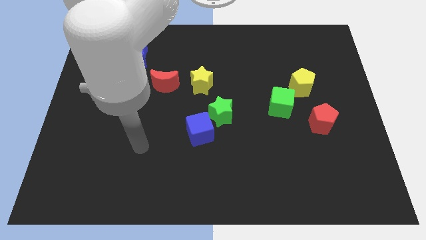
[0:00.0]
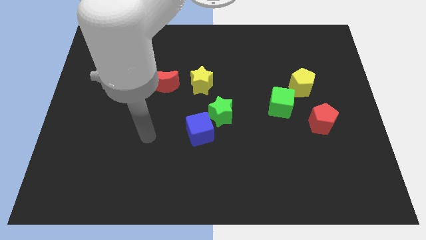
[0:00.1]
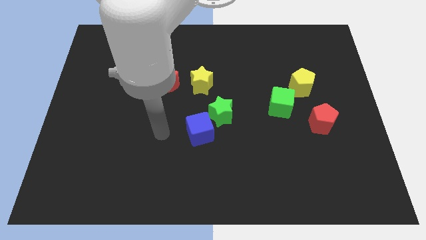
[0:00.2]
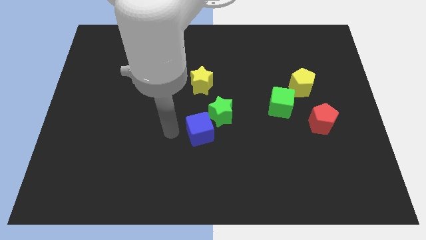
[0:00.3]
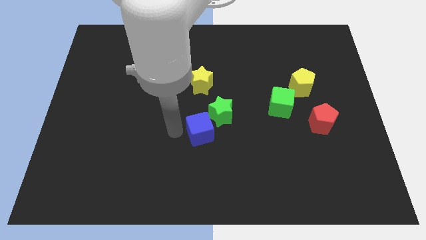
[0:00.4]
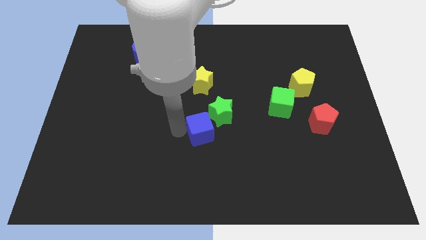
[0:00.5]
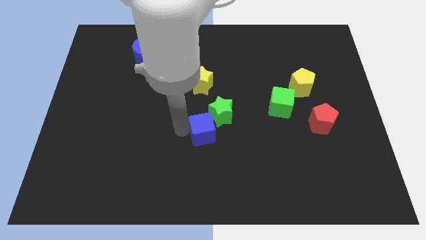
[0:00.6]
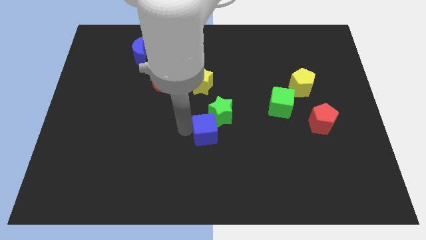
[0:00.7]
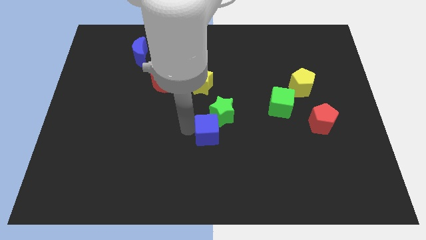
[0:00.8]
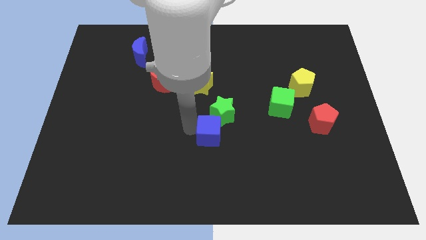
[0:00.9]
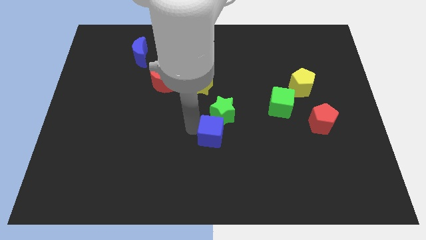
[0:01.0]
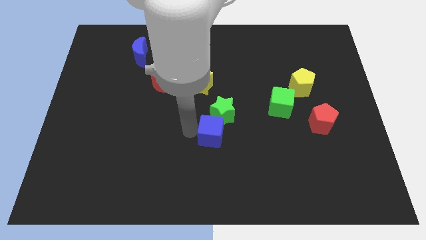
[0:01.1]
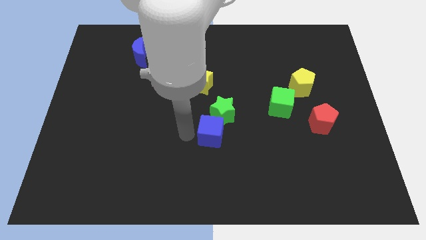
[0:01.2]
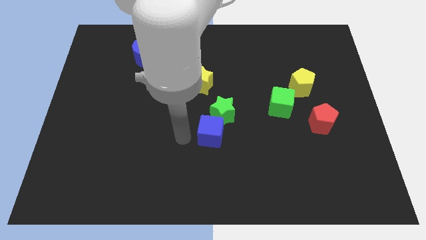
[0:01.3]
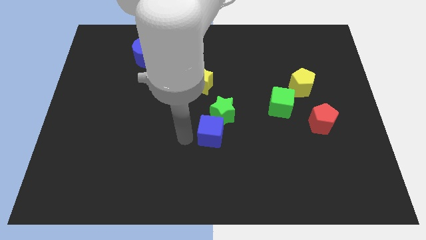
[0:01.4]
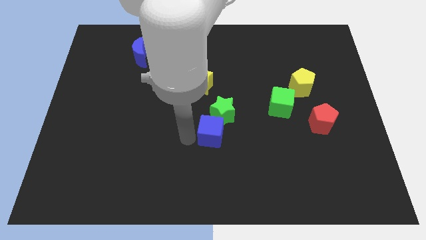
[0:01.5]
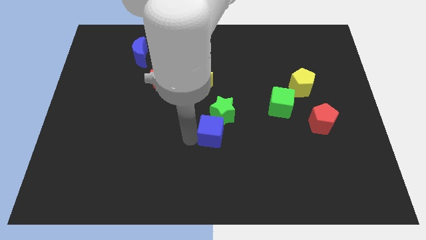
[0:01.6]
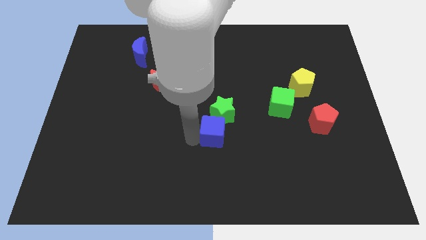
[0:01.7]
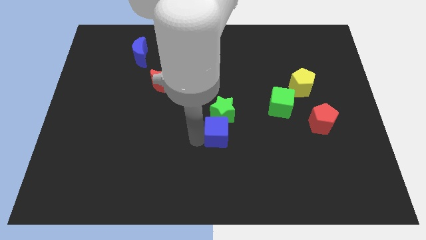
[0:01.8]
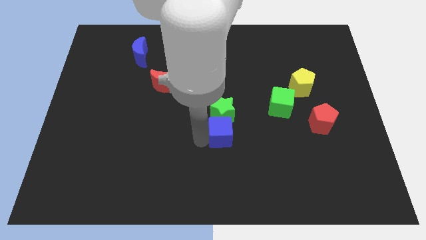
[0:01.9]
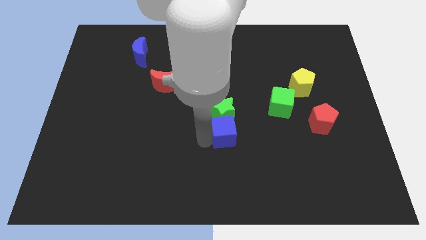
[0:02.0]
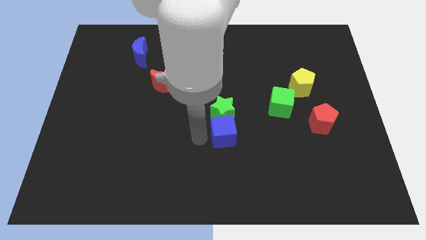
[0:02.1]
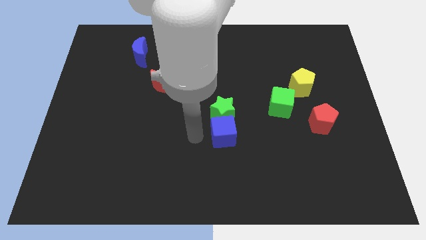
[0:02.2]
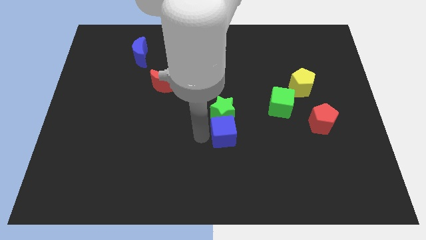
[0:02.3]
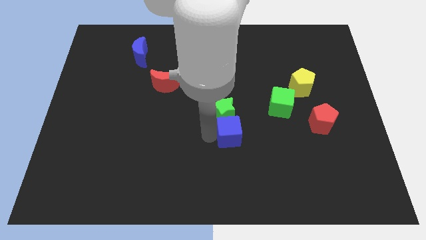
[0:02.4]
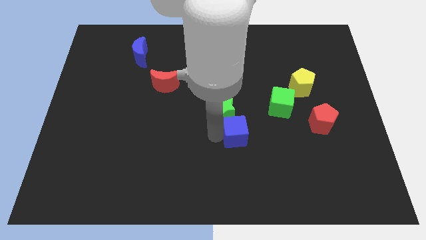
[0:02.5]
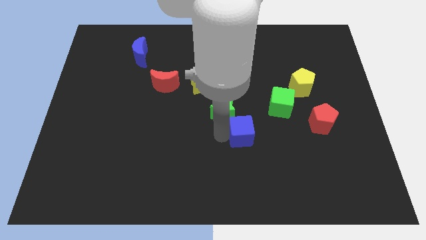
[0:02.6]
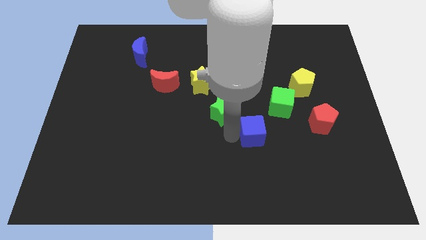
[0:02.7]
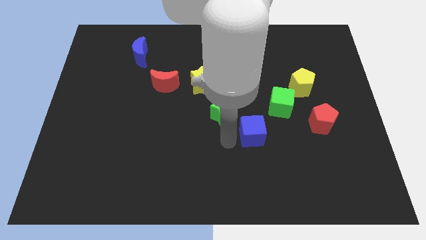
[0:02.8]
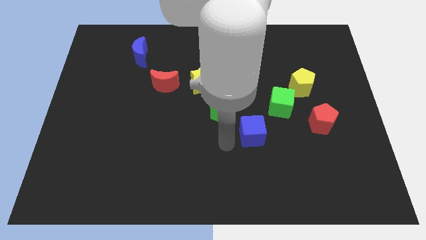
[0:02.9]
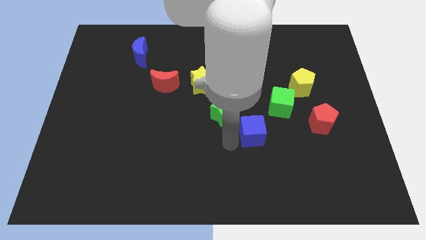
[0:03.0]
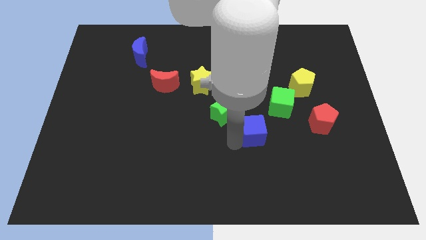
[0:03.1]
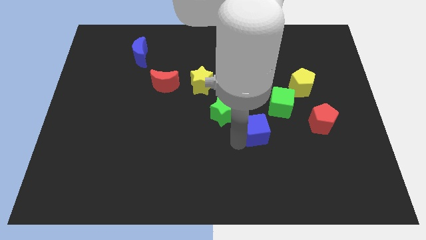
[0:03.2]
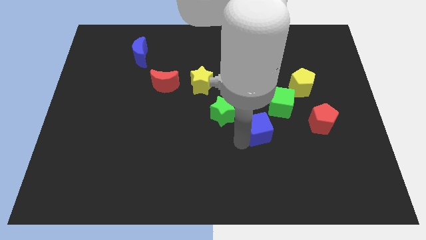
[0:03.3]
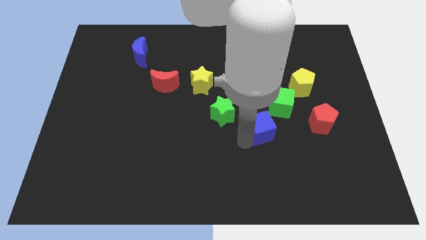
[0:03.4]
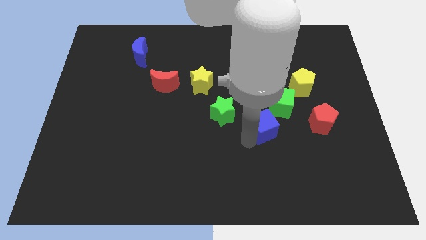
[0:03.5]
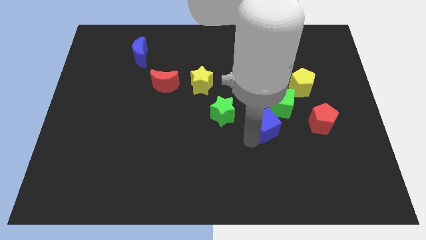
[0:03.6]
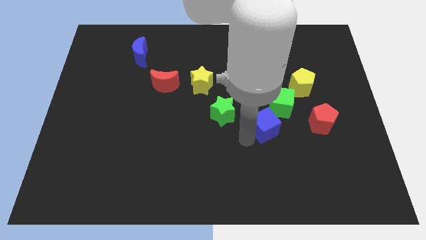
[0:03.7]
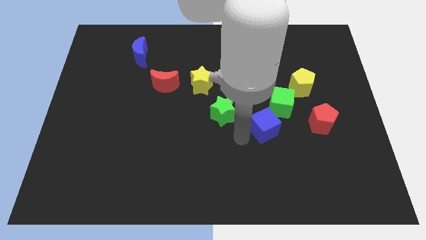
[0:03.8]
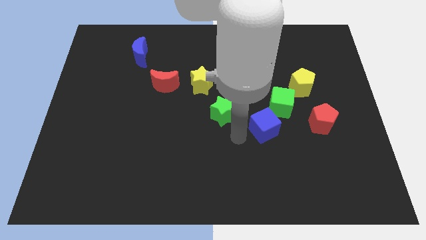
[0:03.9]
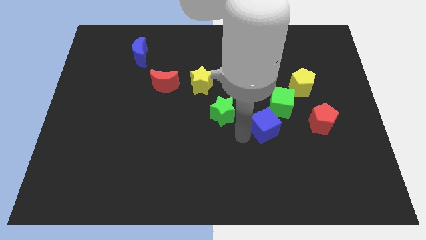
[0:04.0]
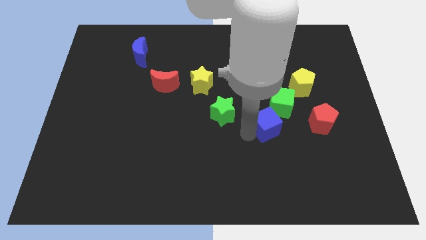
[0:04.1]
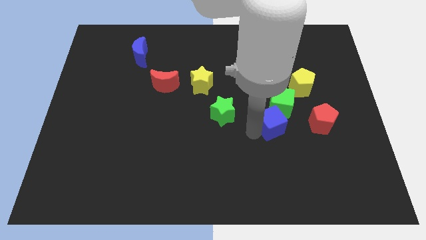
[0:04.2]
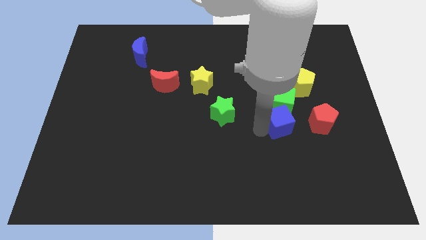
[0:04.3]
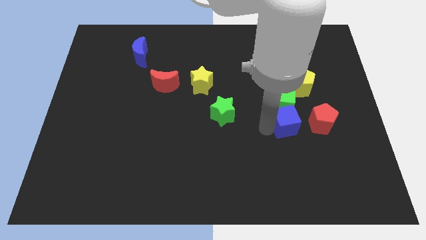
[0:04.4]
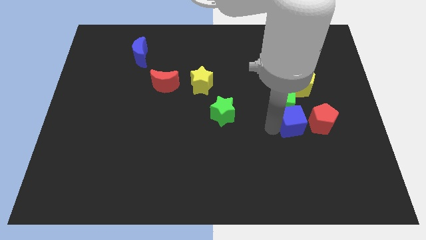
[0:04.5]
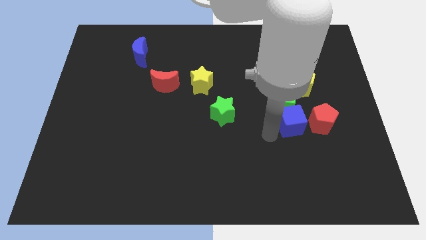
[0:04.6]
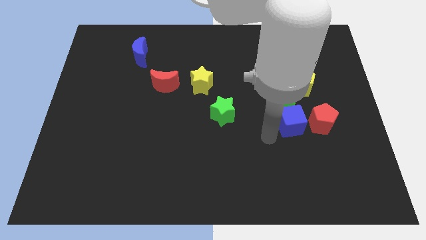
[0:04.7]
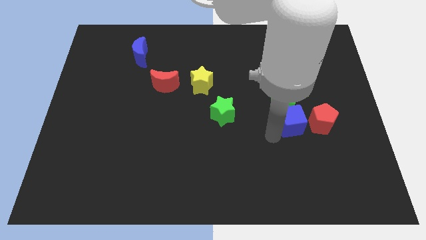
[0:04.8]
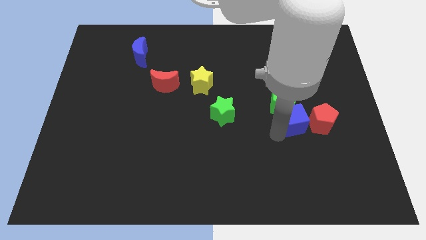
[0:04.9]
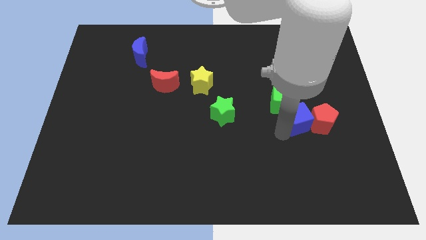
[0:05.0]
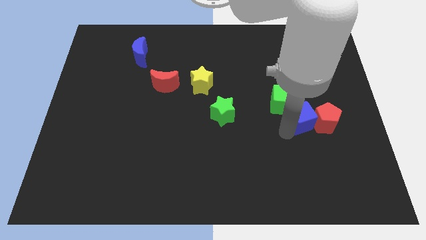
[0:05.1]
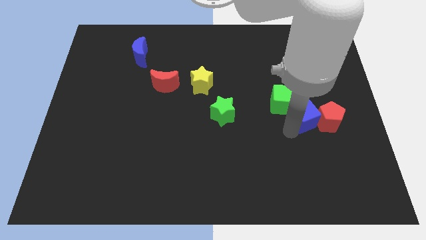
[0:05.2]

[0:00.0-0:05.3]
push the blue cube just right of the green cube

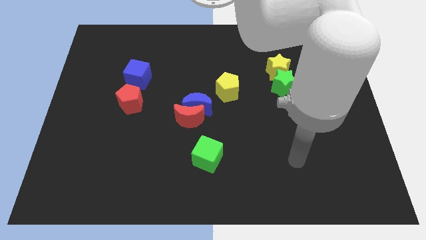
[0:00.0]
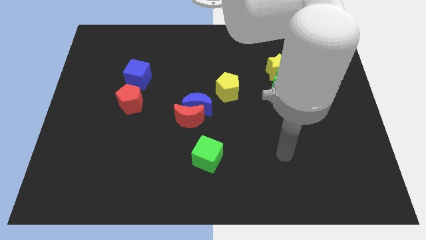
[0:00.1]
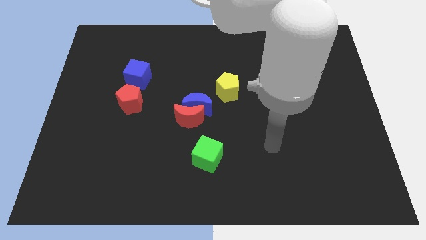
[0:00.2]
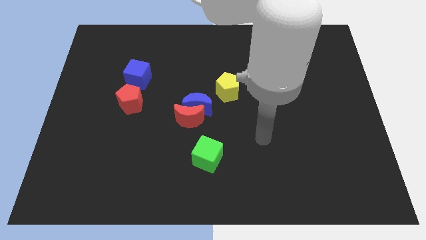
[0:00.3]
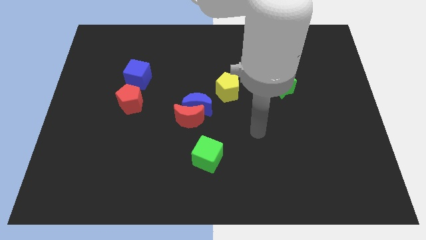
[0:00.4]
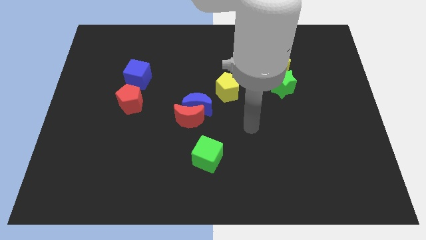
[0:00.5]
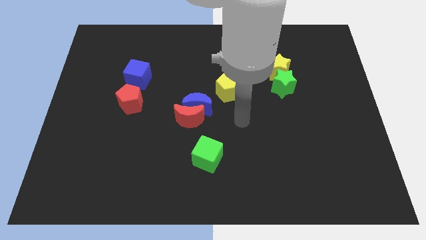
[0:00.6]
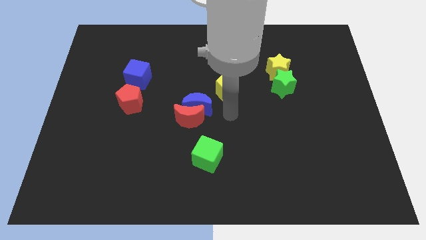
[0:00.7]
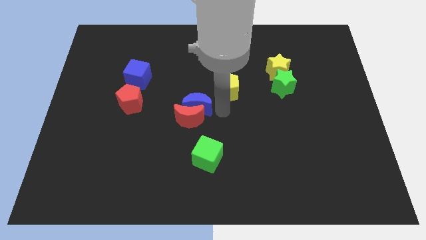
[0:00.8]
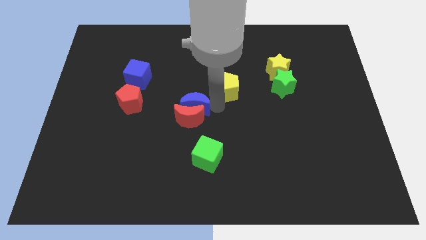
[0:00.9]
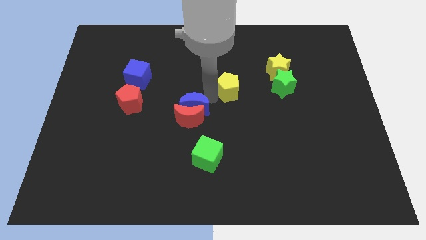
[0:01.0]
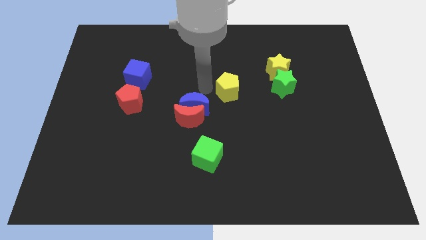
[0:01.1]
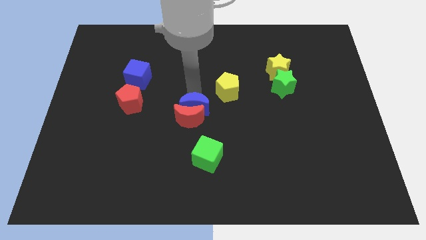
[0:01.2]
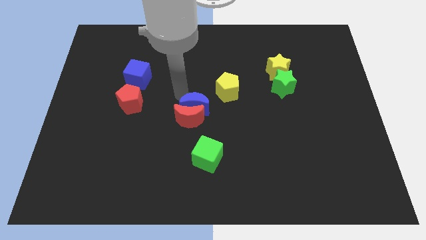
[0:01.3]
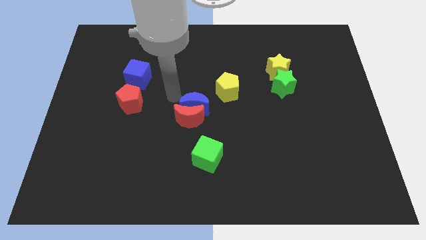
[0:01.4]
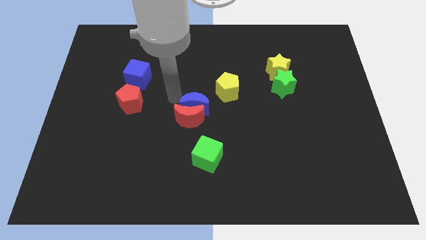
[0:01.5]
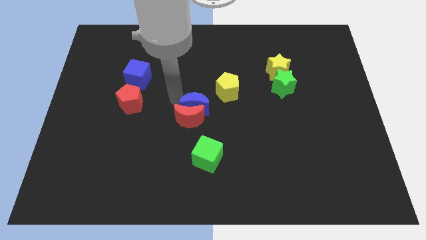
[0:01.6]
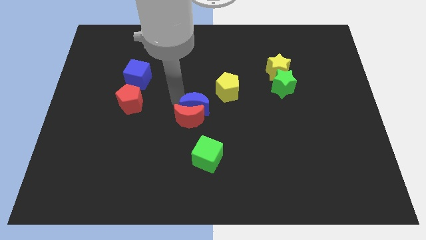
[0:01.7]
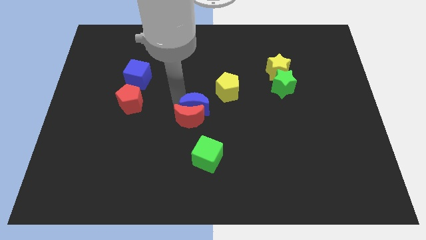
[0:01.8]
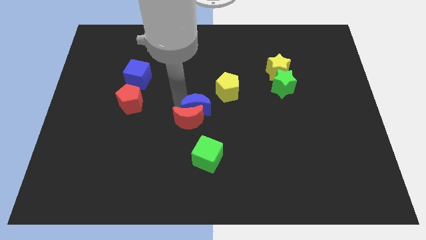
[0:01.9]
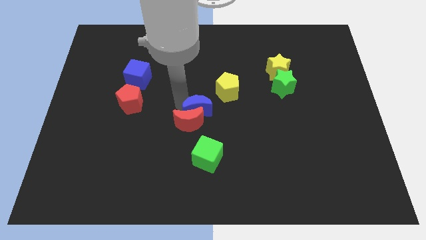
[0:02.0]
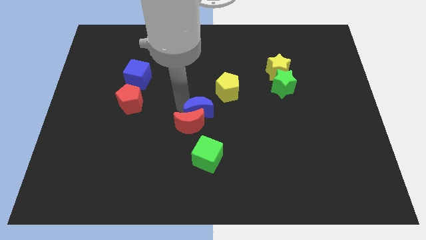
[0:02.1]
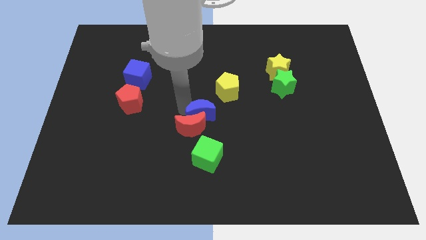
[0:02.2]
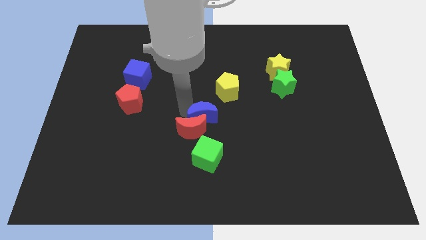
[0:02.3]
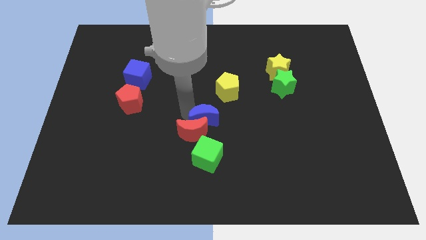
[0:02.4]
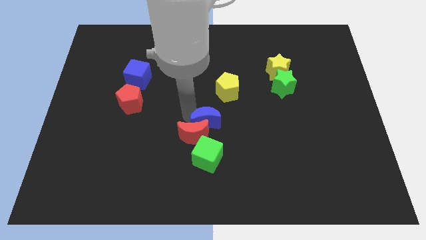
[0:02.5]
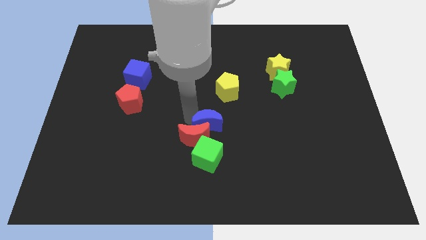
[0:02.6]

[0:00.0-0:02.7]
push the blue moon below the yellow pentagon

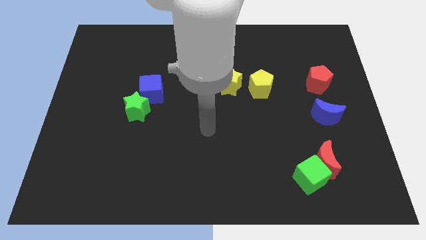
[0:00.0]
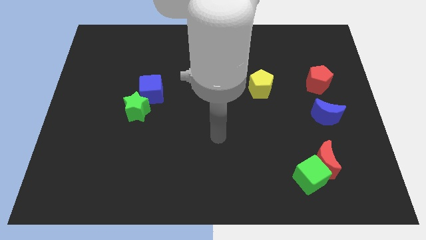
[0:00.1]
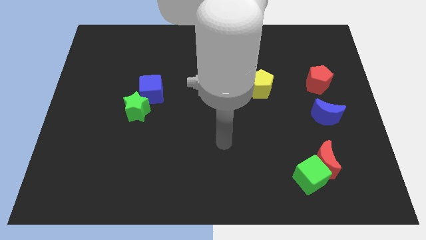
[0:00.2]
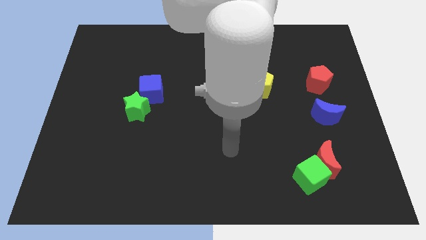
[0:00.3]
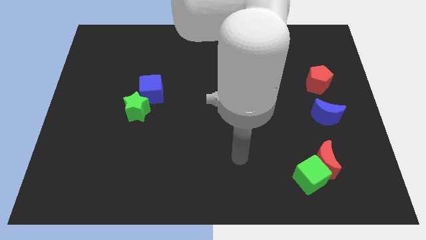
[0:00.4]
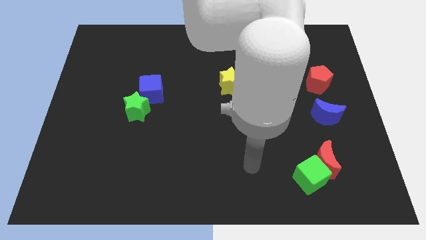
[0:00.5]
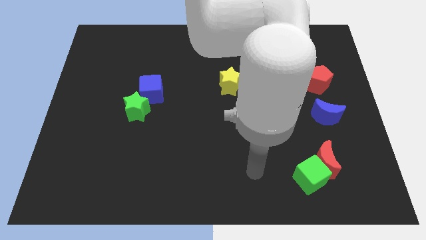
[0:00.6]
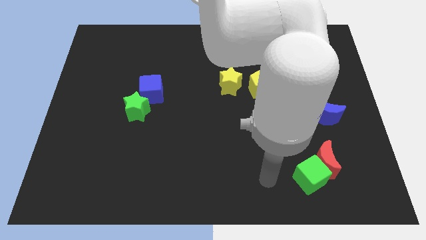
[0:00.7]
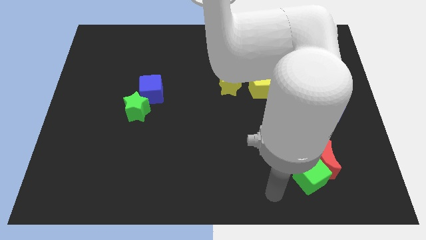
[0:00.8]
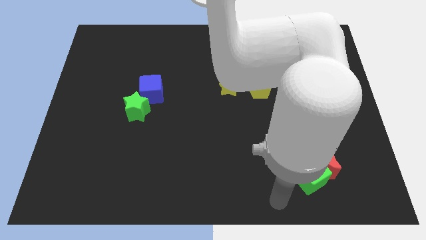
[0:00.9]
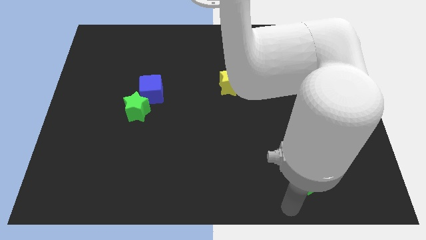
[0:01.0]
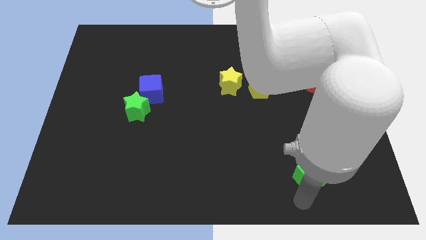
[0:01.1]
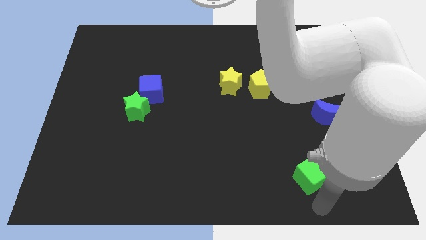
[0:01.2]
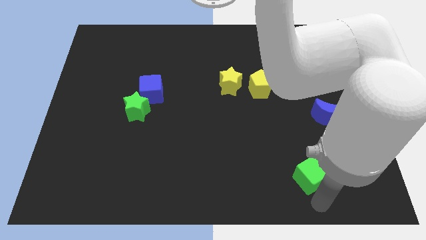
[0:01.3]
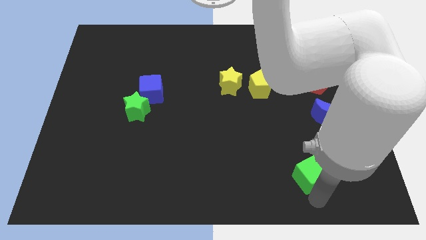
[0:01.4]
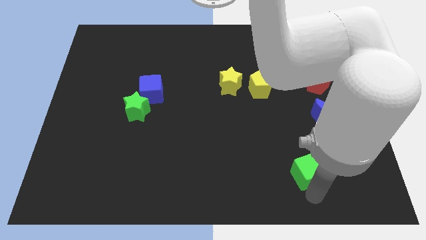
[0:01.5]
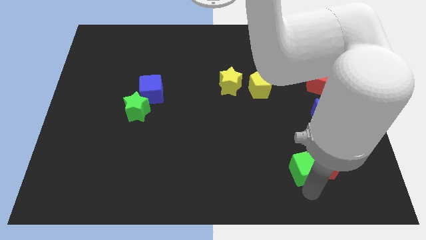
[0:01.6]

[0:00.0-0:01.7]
slide the green cube to the top left of the red moon
